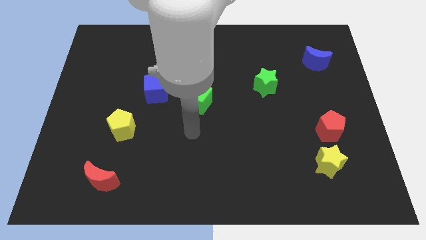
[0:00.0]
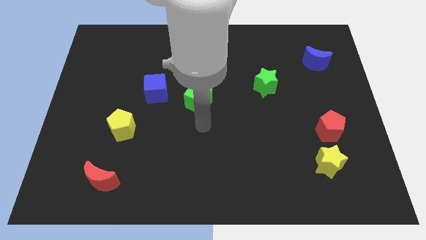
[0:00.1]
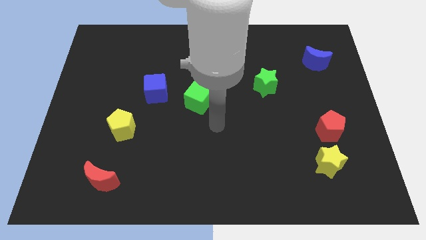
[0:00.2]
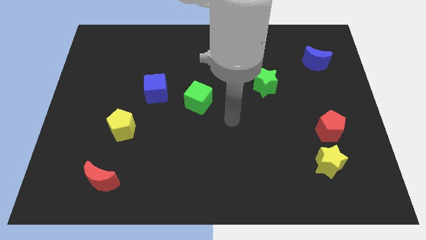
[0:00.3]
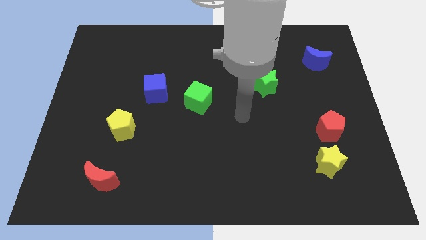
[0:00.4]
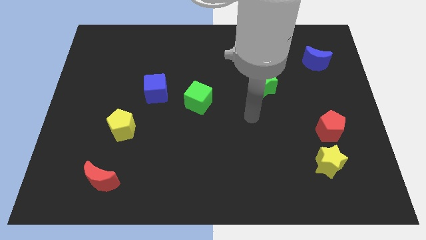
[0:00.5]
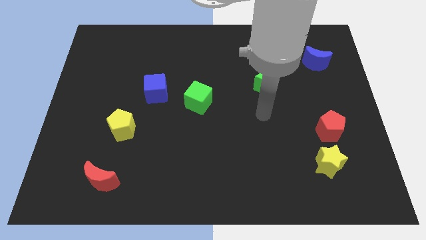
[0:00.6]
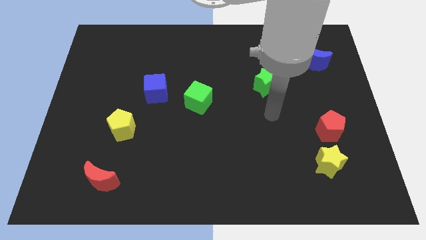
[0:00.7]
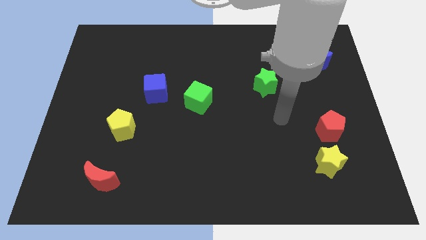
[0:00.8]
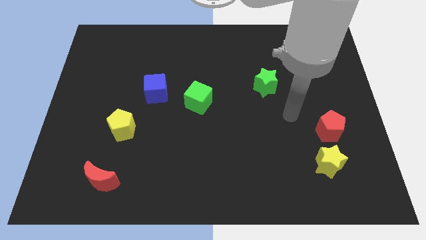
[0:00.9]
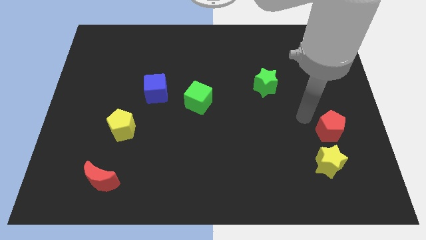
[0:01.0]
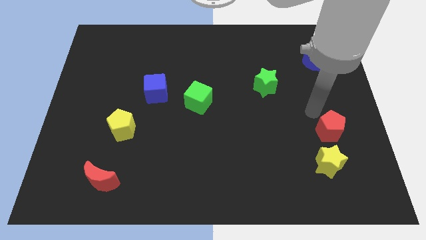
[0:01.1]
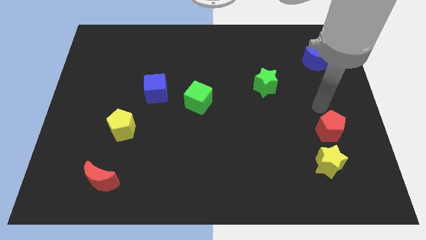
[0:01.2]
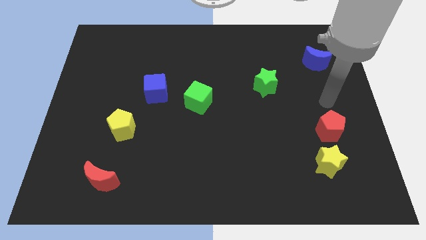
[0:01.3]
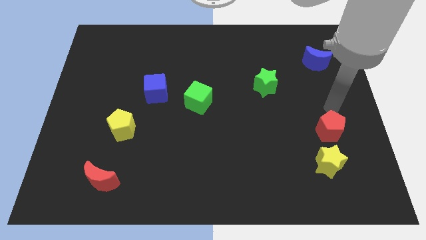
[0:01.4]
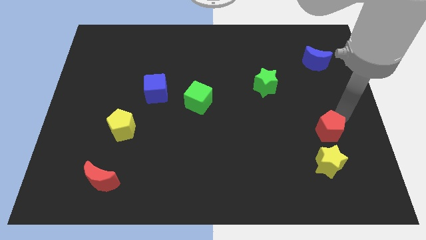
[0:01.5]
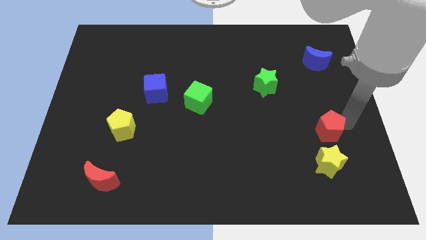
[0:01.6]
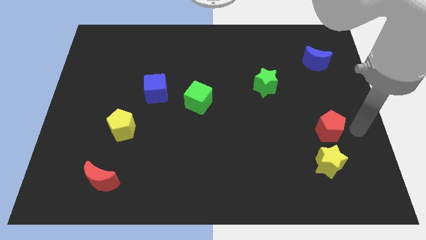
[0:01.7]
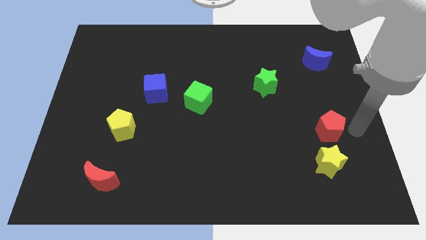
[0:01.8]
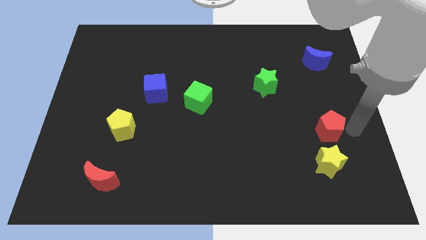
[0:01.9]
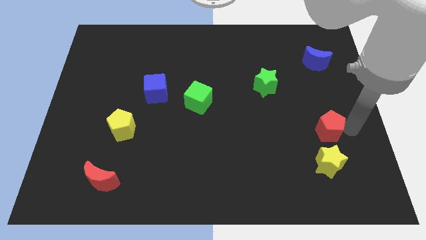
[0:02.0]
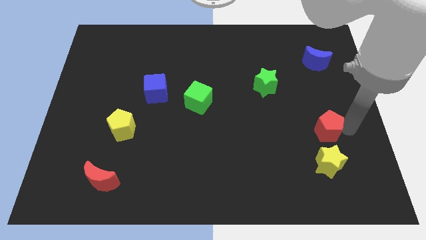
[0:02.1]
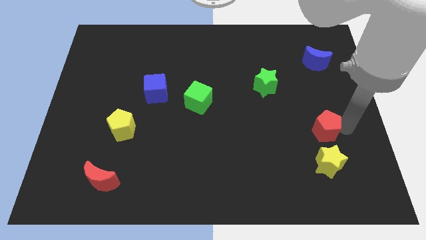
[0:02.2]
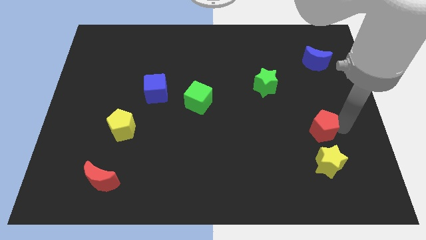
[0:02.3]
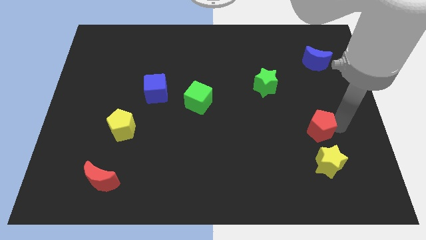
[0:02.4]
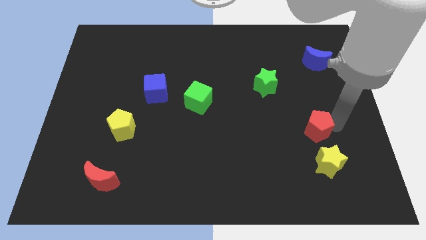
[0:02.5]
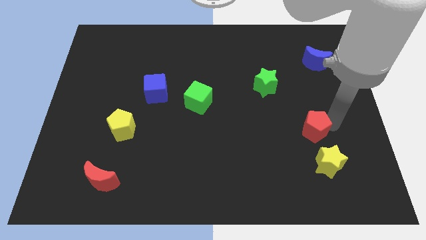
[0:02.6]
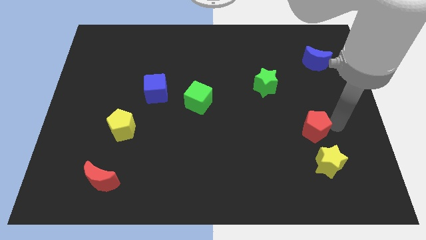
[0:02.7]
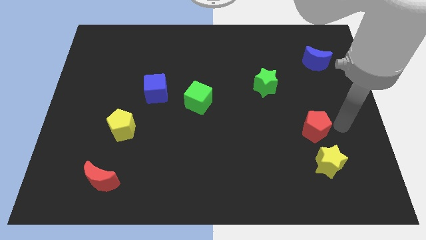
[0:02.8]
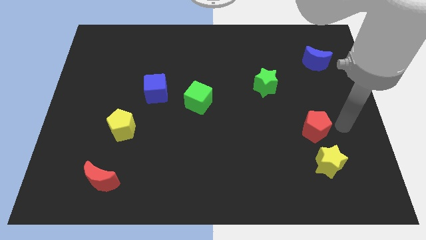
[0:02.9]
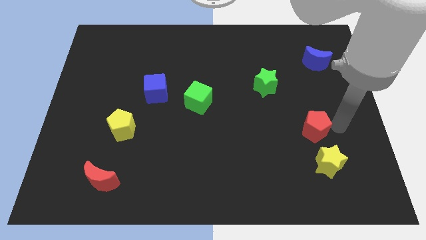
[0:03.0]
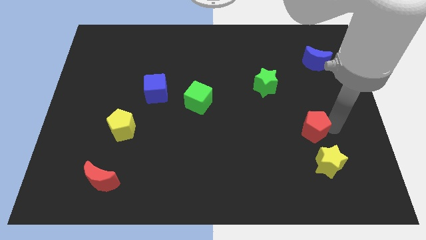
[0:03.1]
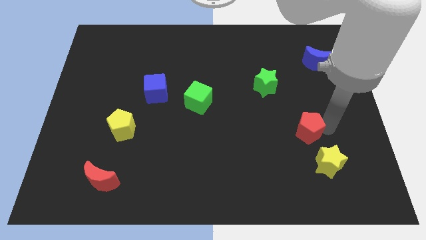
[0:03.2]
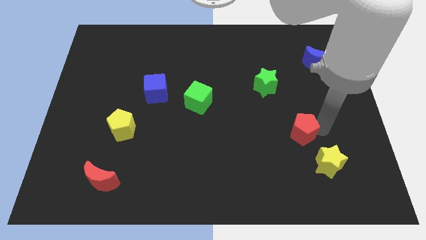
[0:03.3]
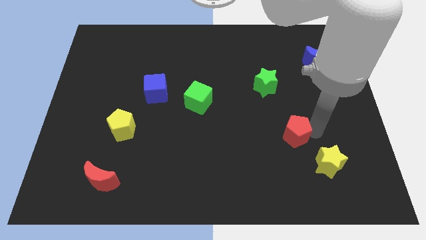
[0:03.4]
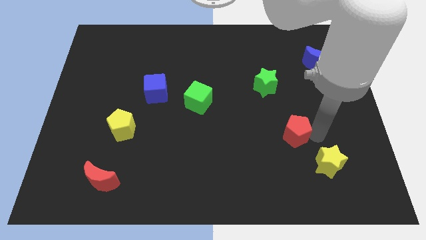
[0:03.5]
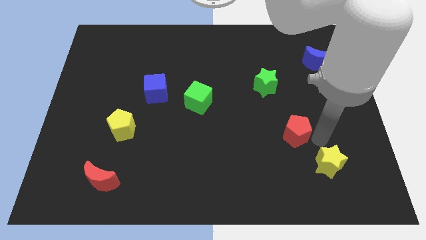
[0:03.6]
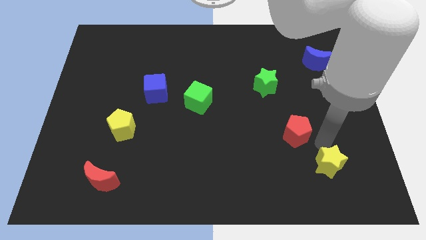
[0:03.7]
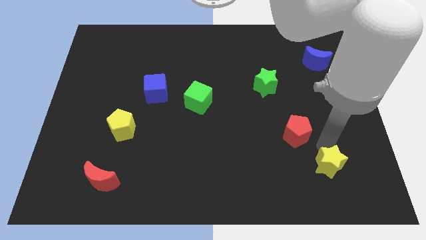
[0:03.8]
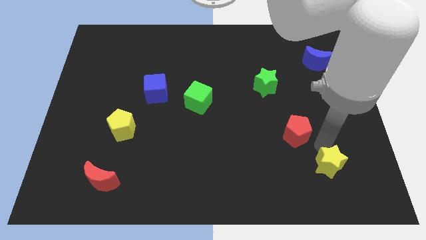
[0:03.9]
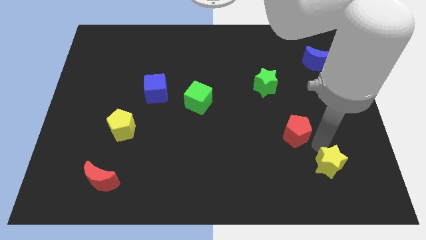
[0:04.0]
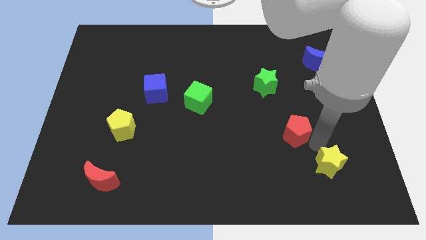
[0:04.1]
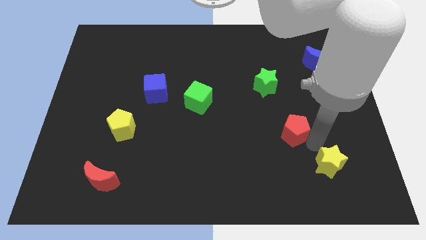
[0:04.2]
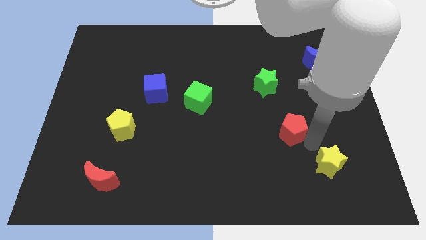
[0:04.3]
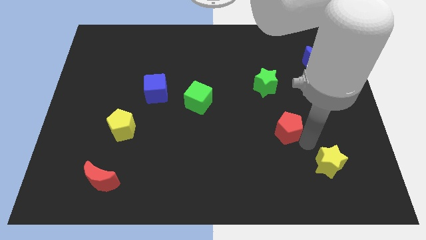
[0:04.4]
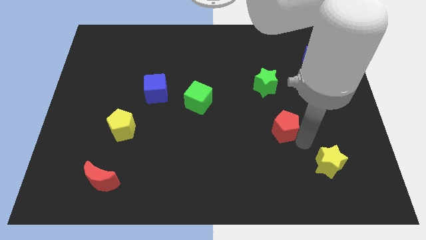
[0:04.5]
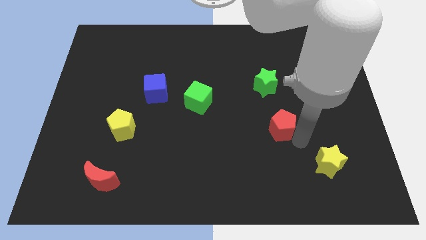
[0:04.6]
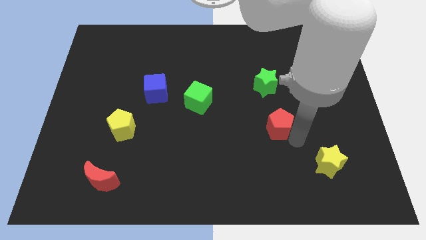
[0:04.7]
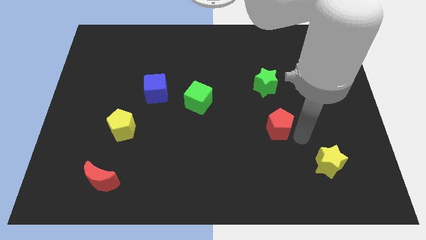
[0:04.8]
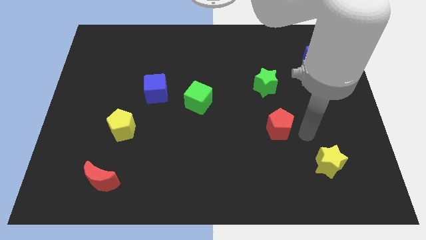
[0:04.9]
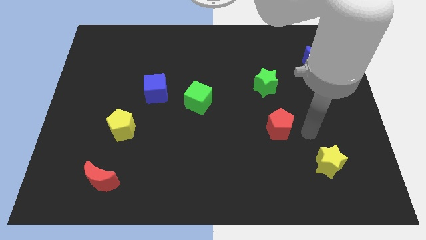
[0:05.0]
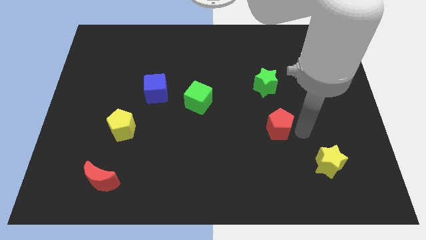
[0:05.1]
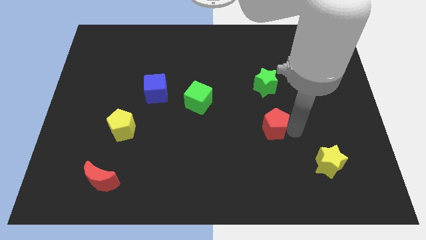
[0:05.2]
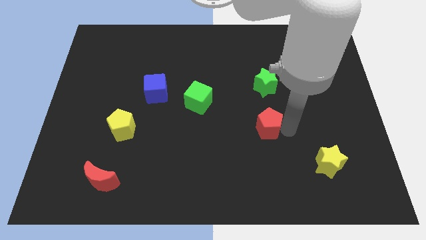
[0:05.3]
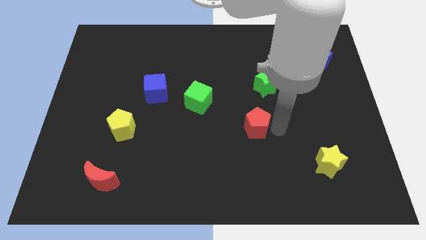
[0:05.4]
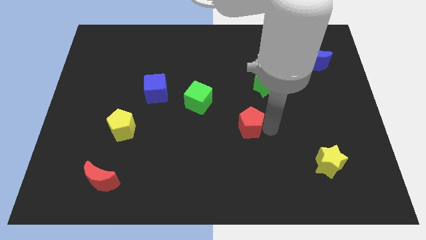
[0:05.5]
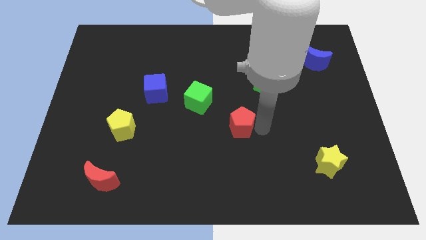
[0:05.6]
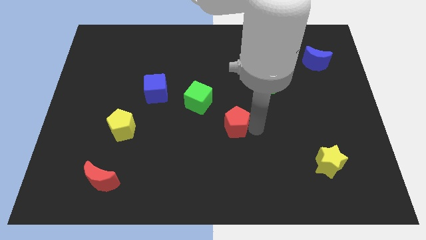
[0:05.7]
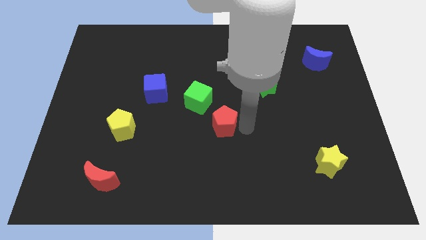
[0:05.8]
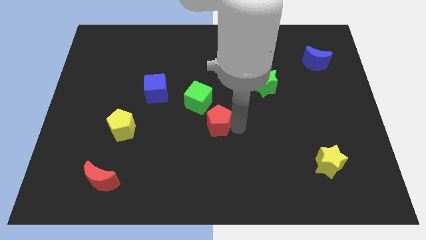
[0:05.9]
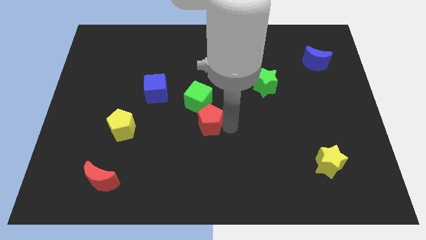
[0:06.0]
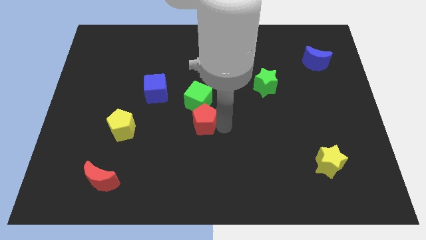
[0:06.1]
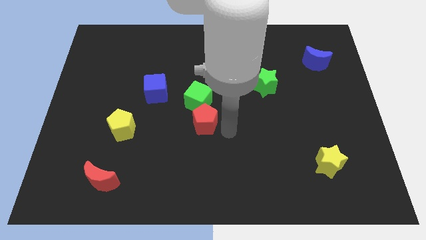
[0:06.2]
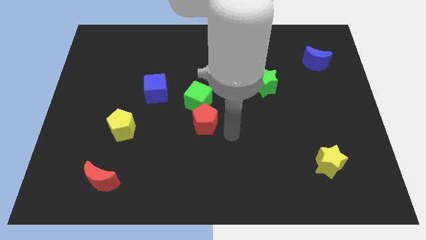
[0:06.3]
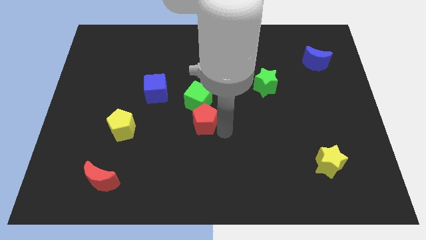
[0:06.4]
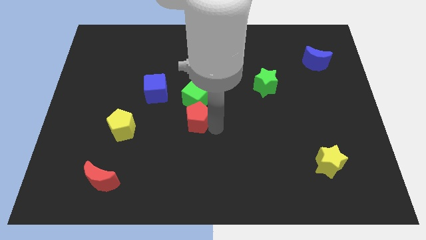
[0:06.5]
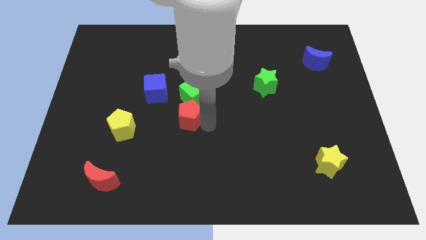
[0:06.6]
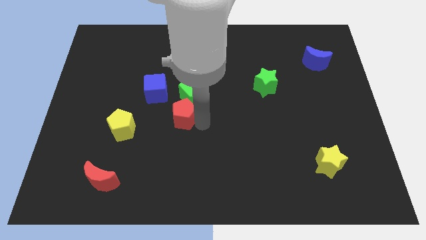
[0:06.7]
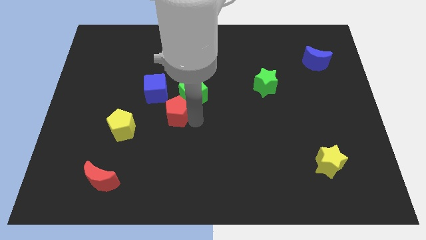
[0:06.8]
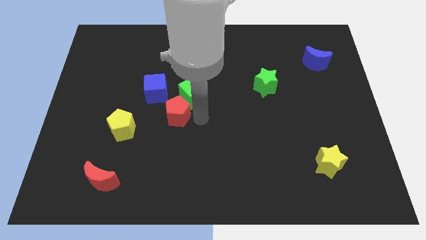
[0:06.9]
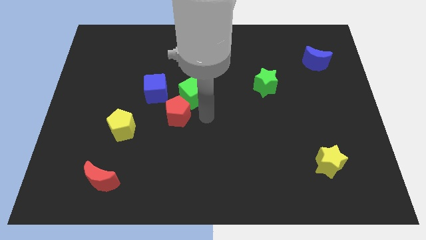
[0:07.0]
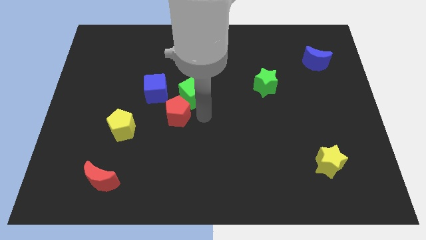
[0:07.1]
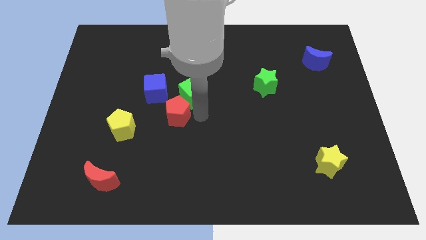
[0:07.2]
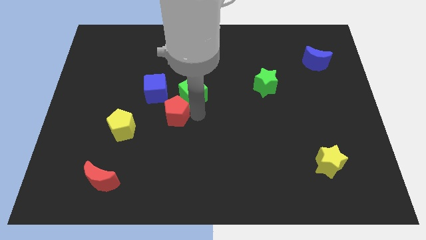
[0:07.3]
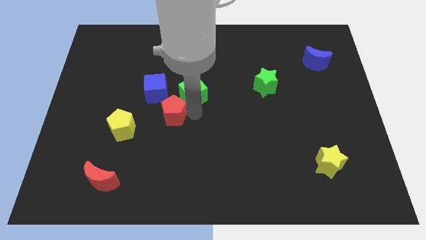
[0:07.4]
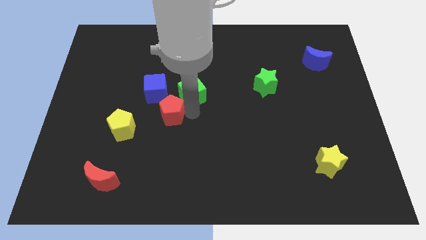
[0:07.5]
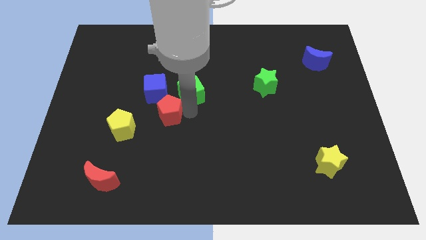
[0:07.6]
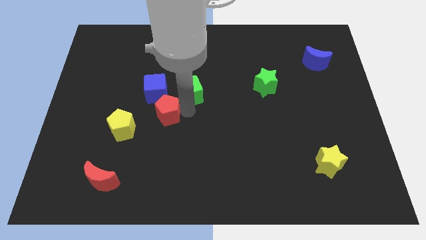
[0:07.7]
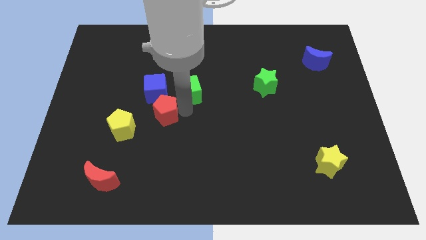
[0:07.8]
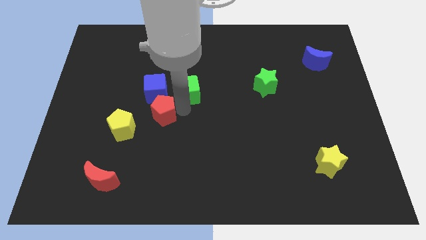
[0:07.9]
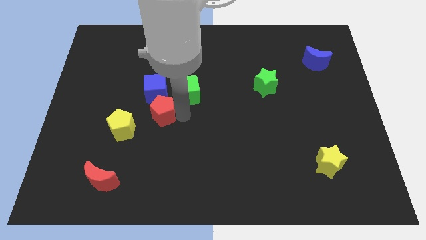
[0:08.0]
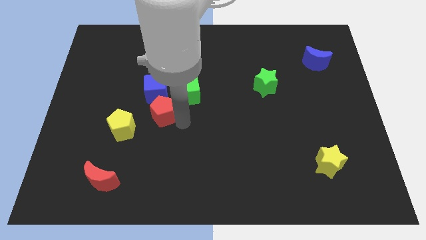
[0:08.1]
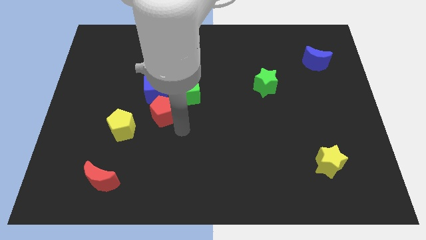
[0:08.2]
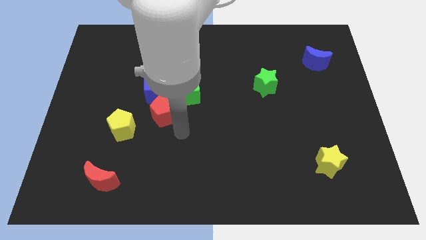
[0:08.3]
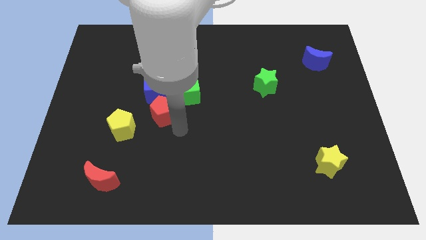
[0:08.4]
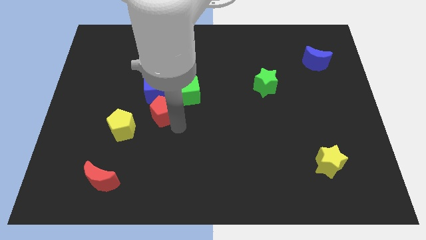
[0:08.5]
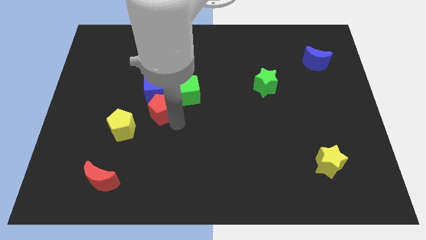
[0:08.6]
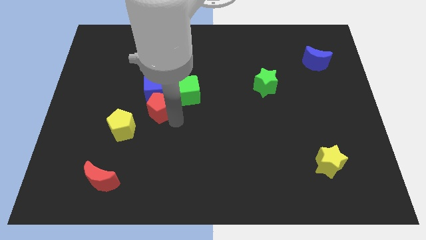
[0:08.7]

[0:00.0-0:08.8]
slide the red pentagon to the left of the green cube
